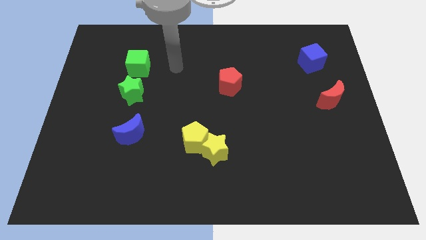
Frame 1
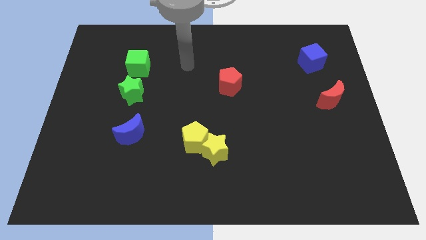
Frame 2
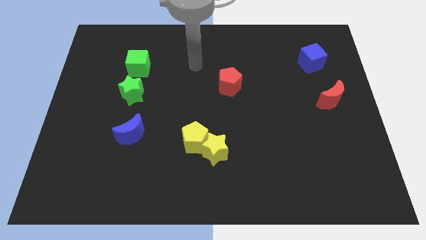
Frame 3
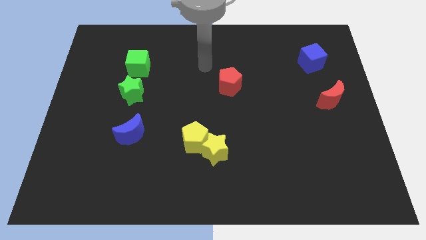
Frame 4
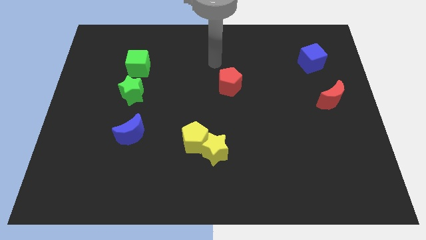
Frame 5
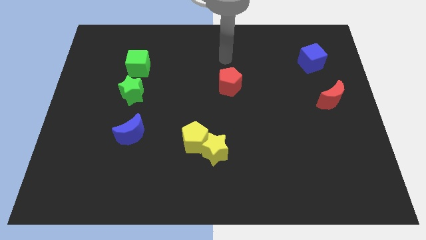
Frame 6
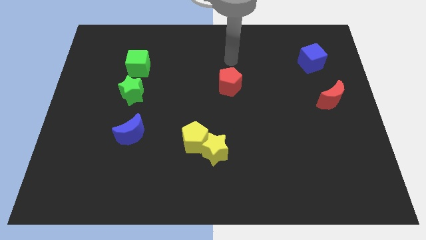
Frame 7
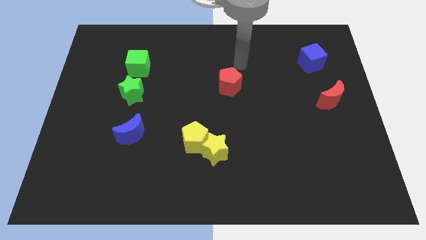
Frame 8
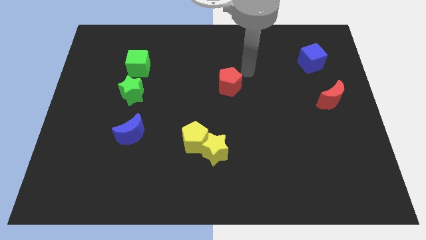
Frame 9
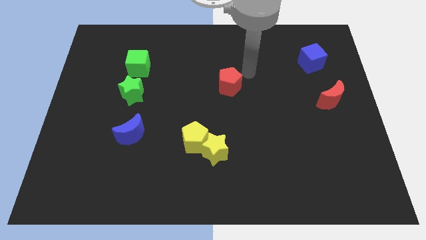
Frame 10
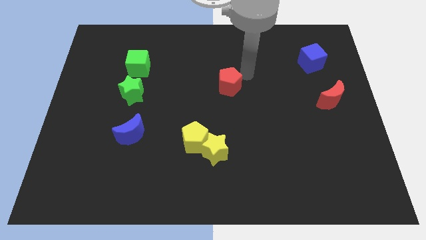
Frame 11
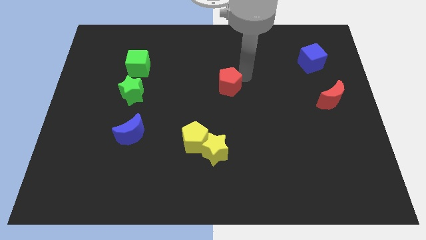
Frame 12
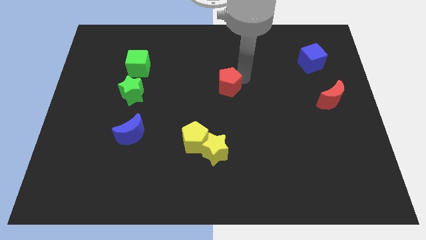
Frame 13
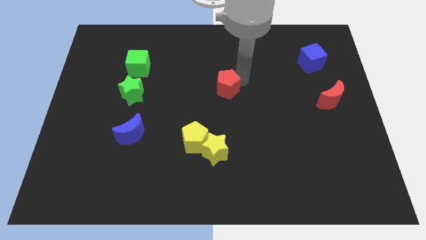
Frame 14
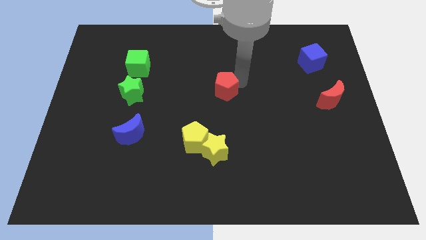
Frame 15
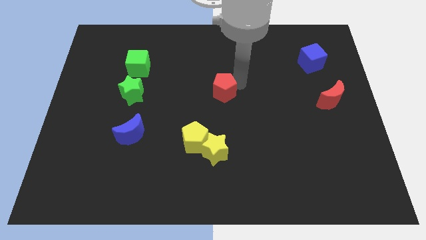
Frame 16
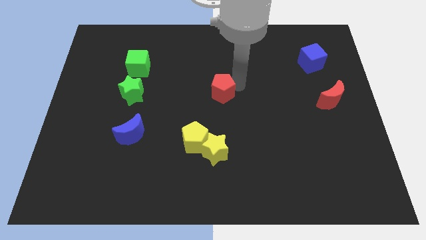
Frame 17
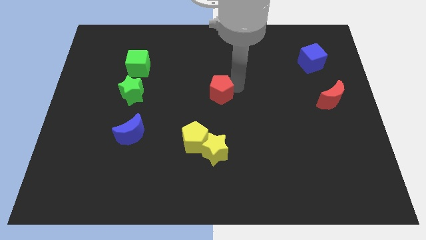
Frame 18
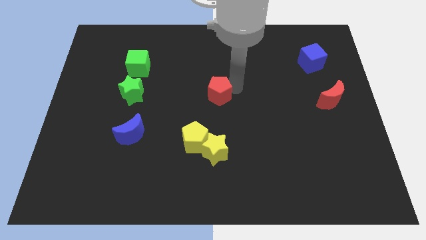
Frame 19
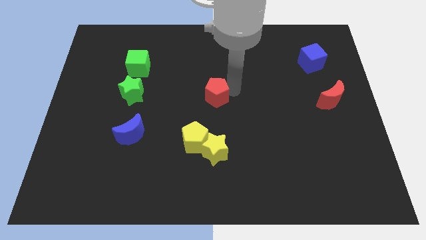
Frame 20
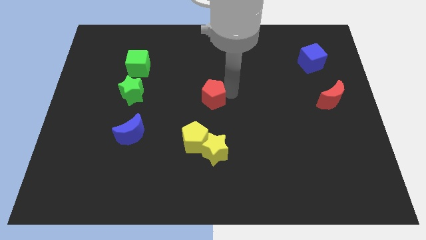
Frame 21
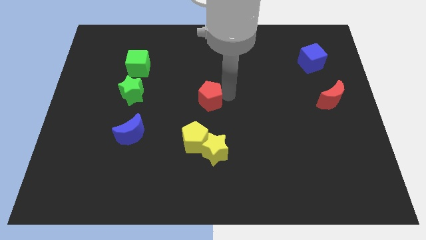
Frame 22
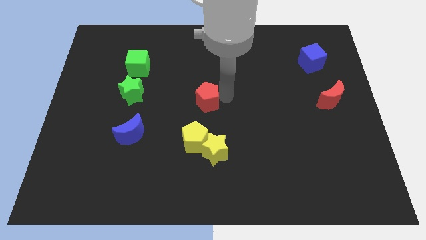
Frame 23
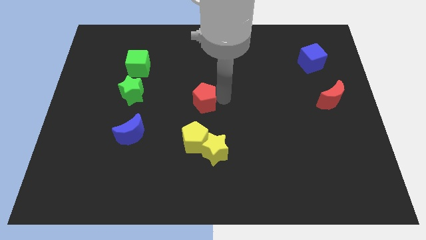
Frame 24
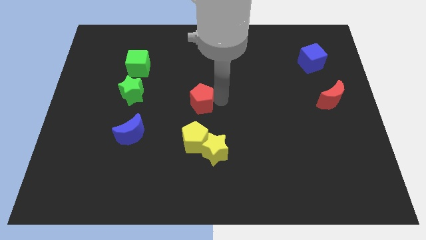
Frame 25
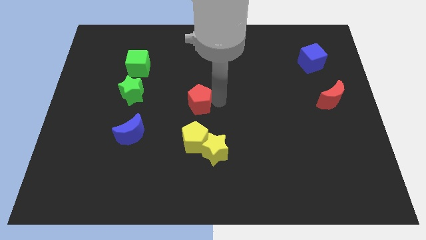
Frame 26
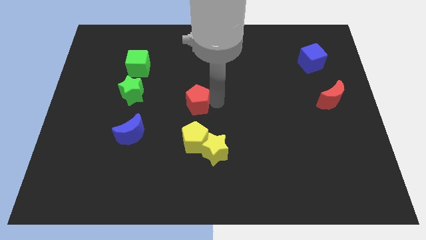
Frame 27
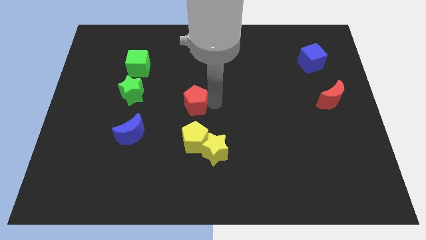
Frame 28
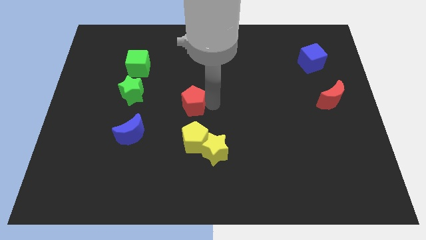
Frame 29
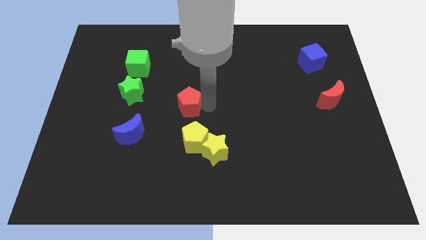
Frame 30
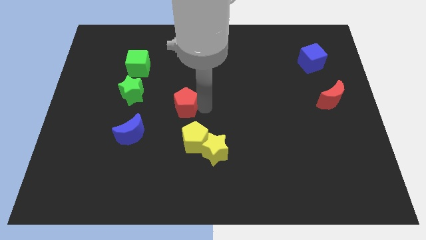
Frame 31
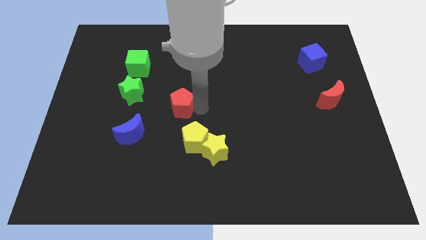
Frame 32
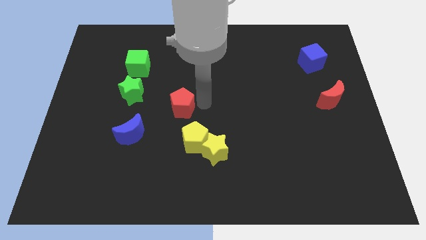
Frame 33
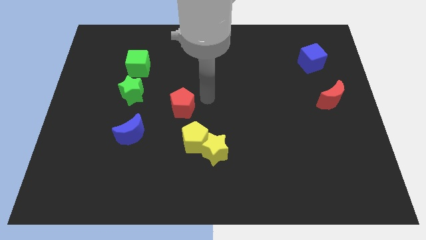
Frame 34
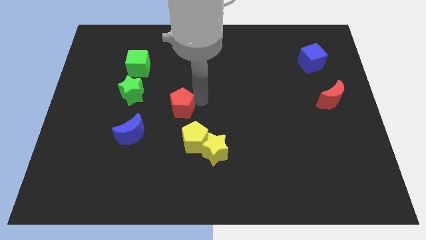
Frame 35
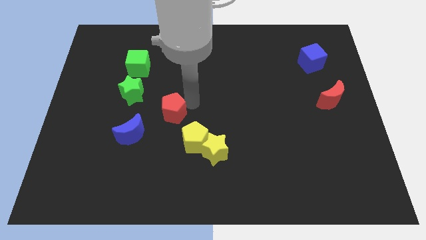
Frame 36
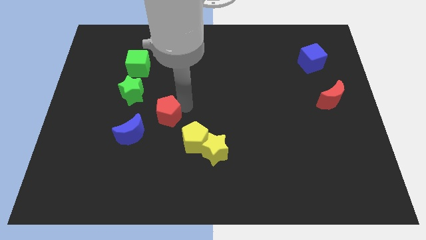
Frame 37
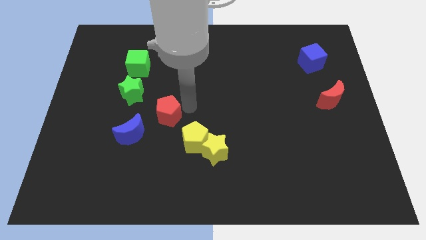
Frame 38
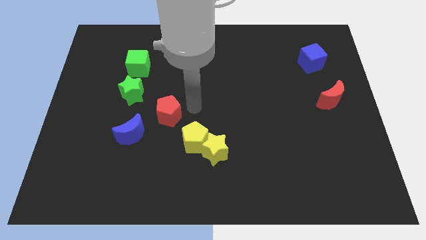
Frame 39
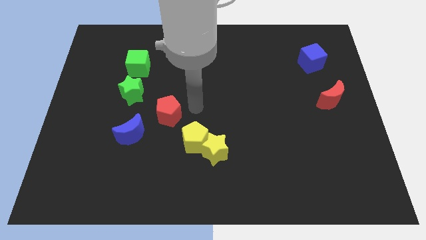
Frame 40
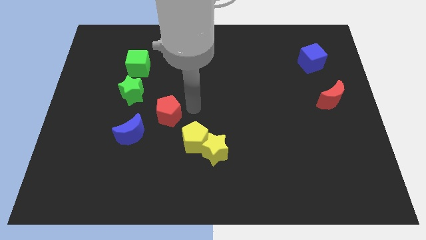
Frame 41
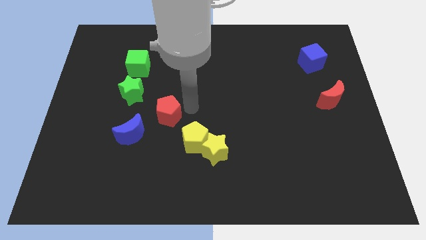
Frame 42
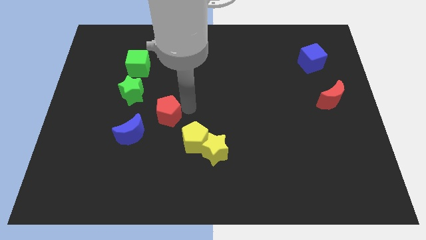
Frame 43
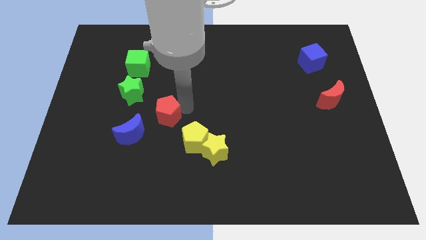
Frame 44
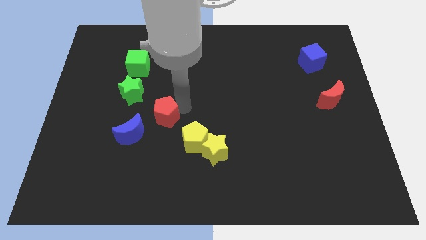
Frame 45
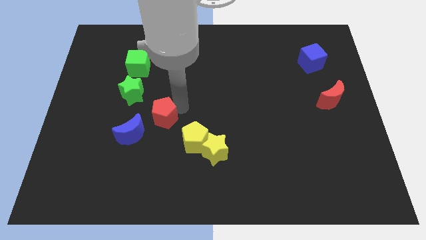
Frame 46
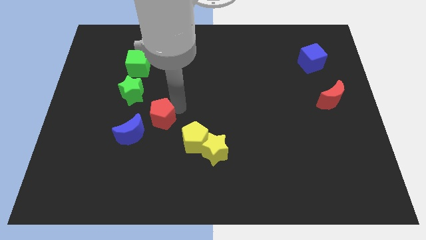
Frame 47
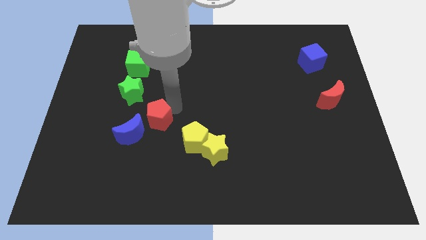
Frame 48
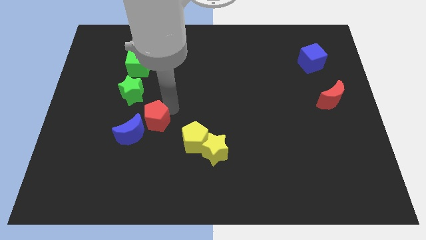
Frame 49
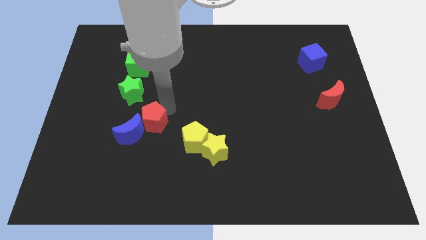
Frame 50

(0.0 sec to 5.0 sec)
slide the red pentagon towards the blue moon

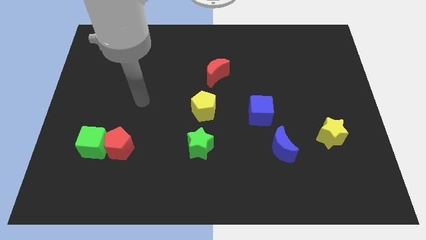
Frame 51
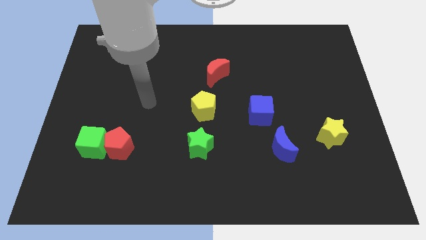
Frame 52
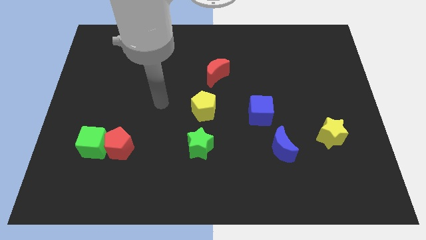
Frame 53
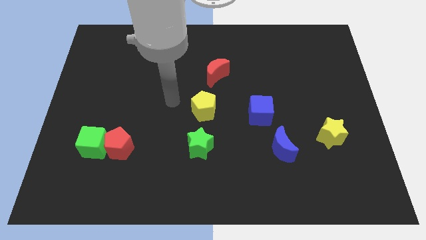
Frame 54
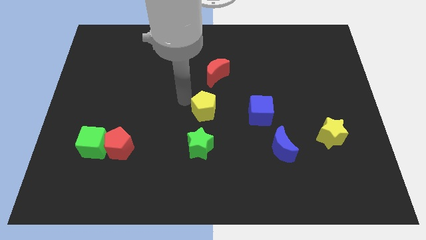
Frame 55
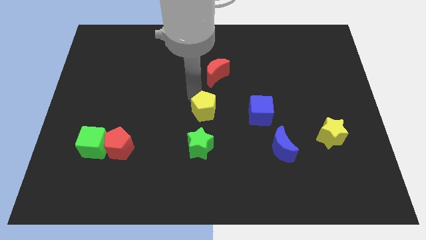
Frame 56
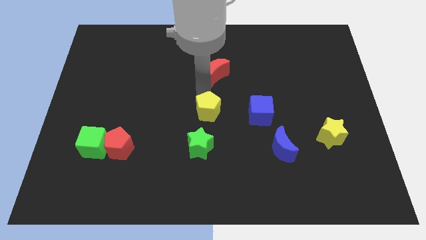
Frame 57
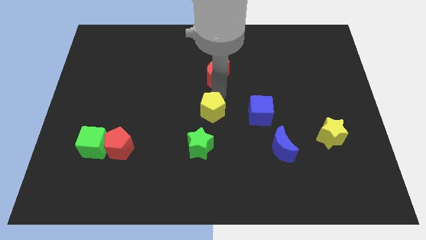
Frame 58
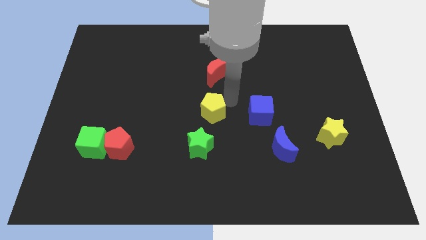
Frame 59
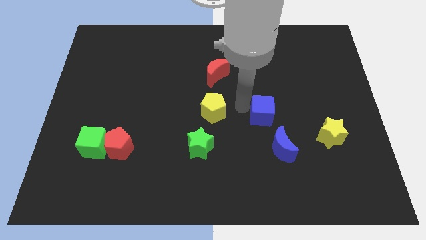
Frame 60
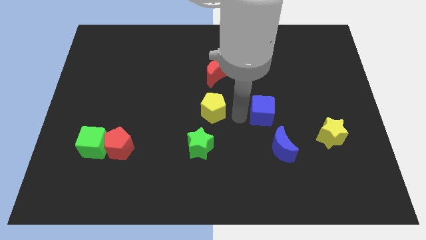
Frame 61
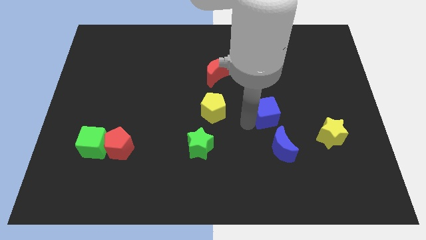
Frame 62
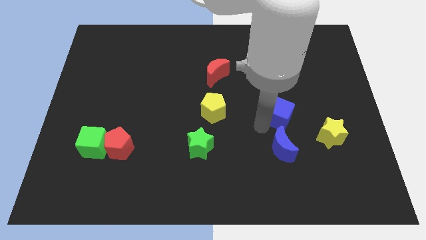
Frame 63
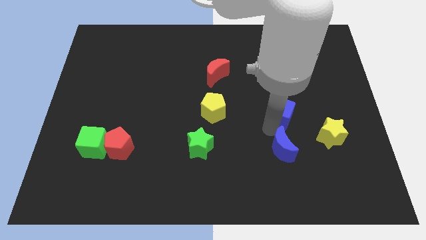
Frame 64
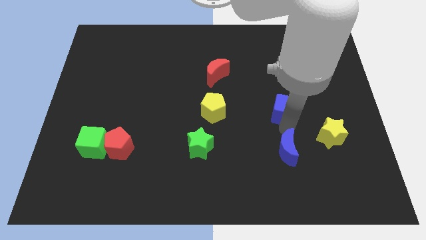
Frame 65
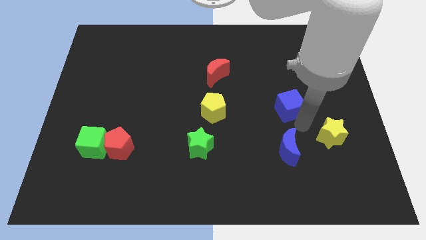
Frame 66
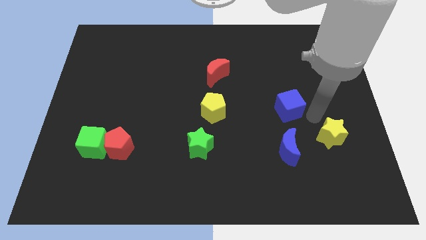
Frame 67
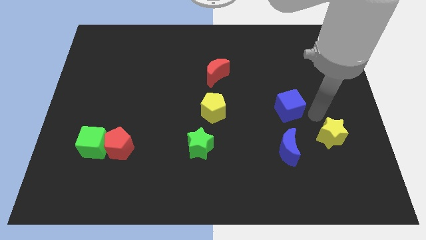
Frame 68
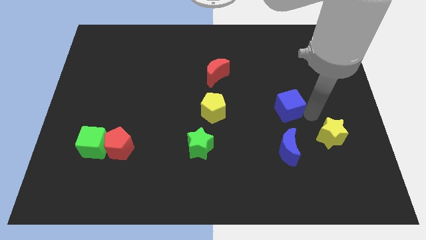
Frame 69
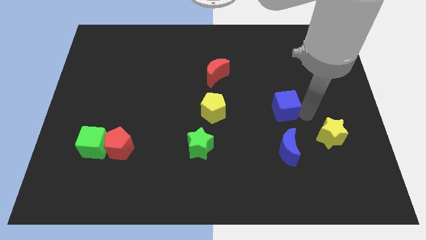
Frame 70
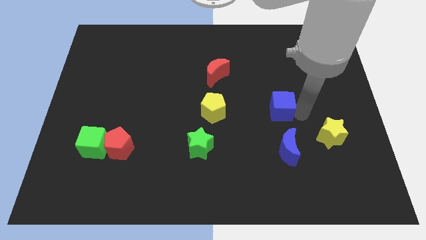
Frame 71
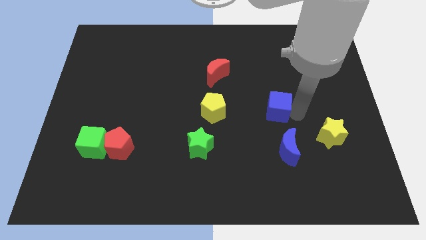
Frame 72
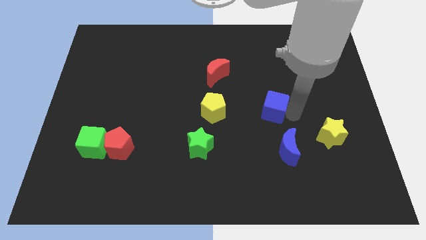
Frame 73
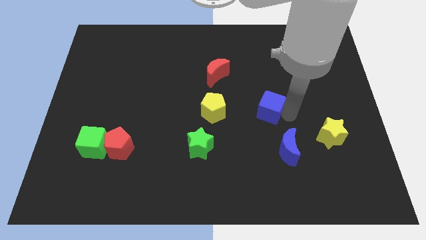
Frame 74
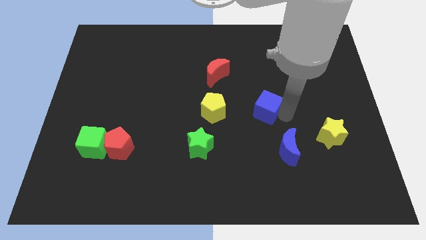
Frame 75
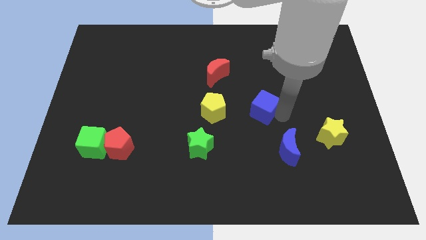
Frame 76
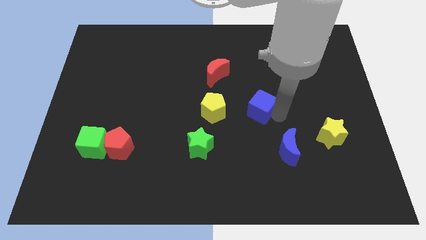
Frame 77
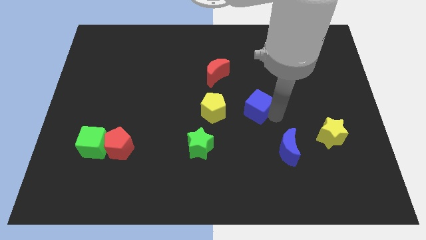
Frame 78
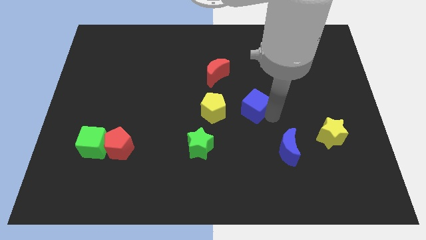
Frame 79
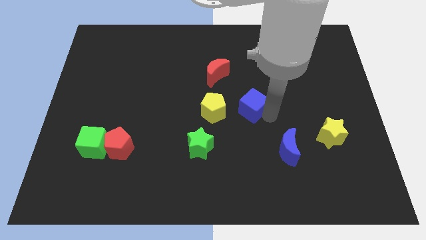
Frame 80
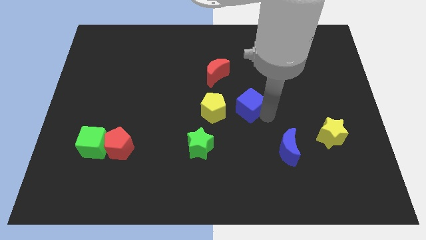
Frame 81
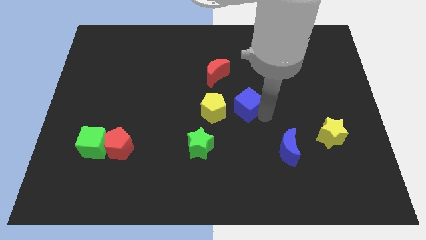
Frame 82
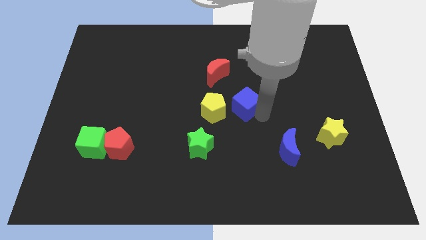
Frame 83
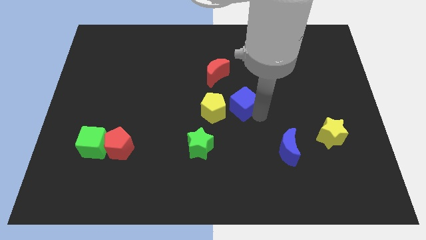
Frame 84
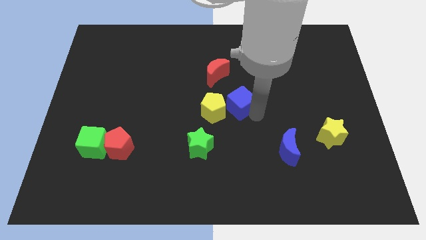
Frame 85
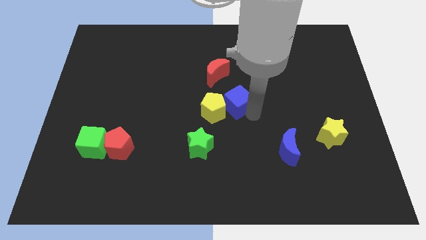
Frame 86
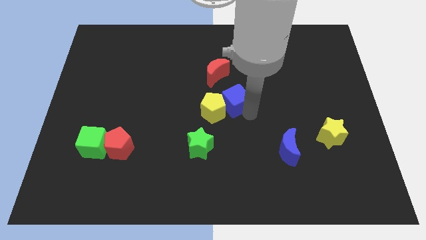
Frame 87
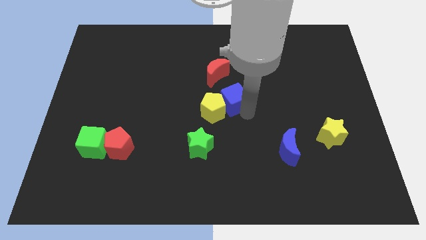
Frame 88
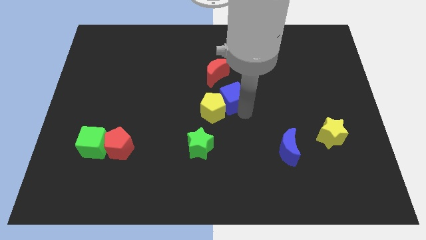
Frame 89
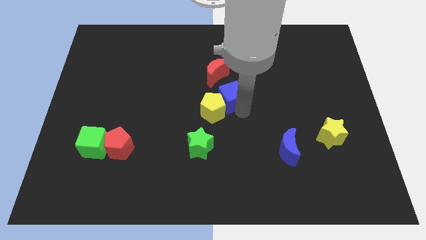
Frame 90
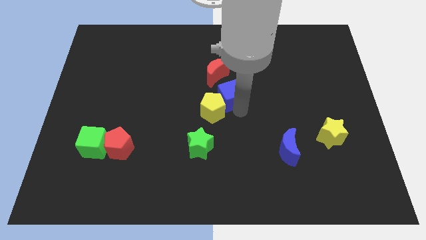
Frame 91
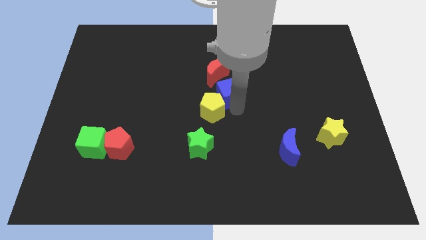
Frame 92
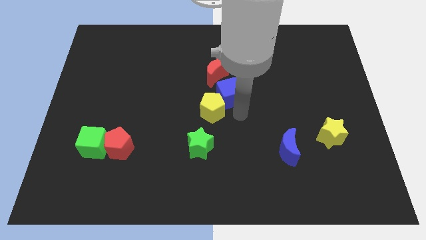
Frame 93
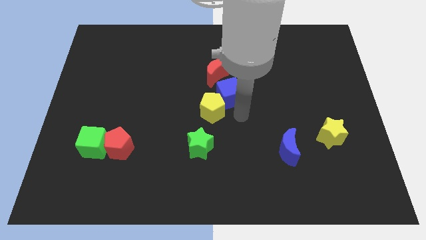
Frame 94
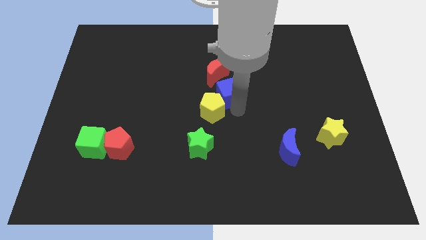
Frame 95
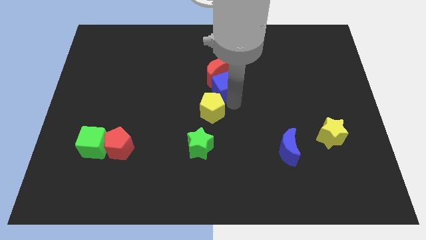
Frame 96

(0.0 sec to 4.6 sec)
slide the blue cube to the red moon
